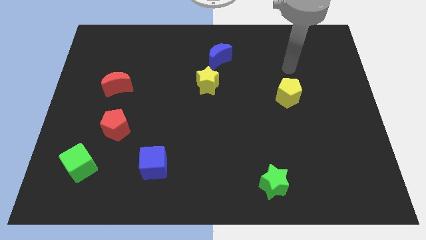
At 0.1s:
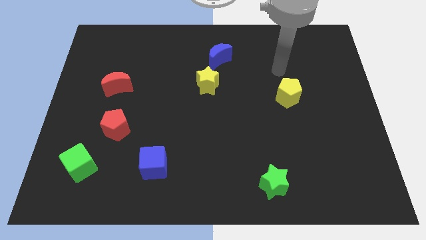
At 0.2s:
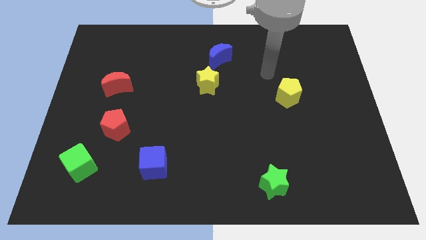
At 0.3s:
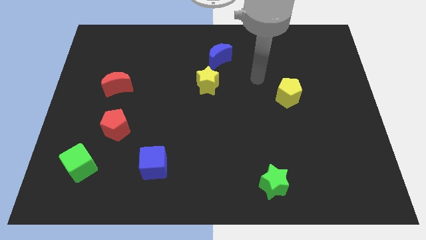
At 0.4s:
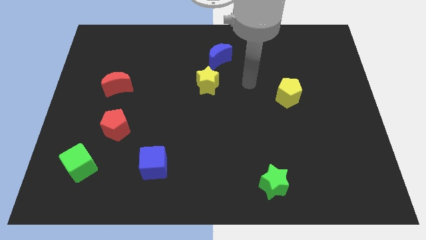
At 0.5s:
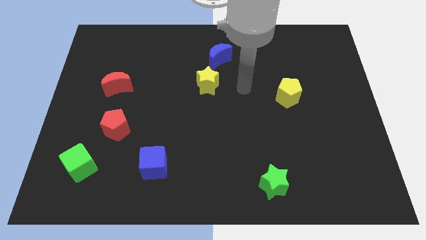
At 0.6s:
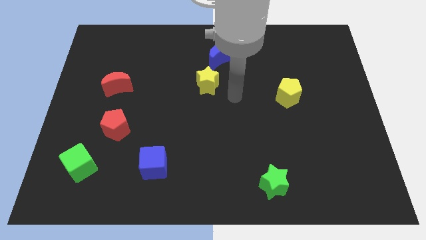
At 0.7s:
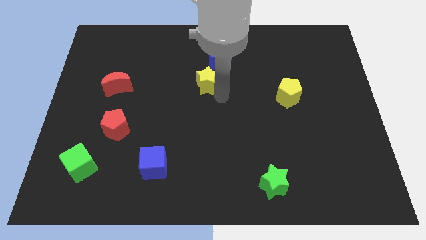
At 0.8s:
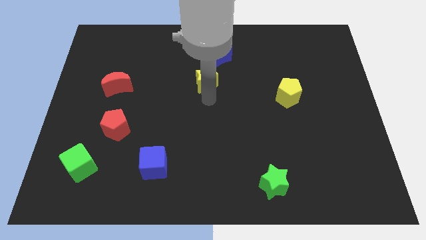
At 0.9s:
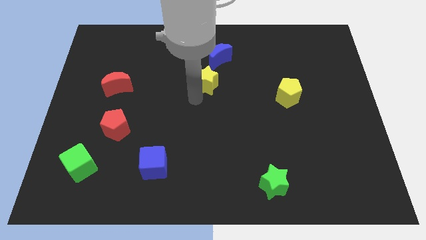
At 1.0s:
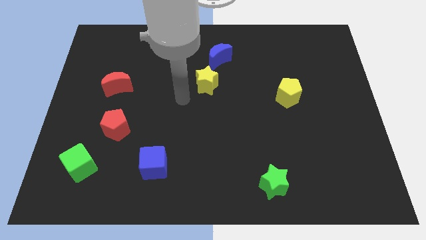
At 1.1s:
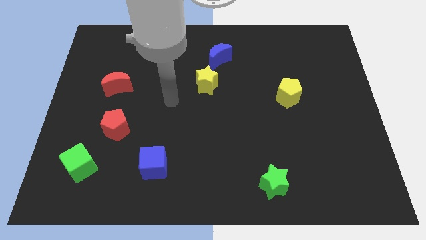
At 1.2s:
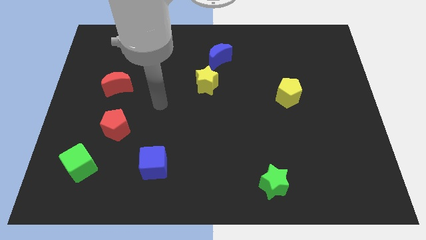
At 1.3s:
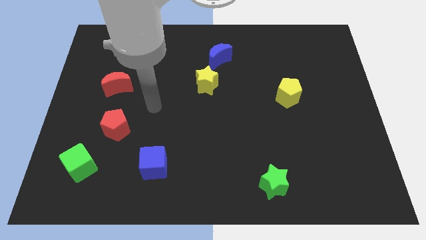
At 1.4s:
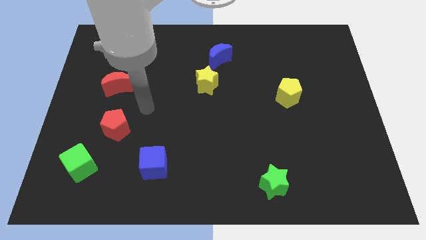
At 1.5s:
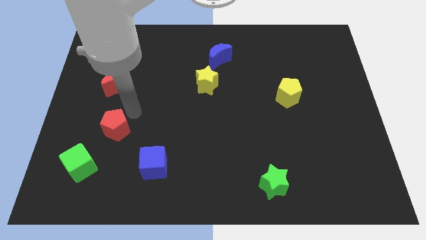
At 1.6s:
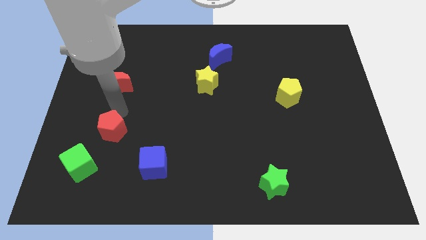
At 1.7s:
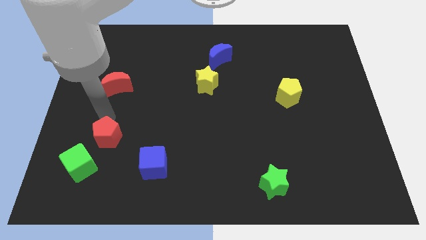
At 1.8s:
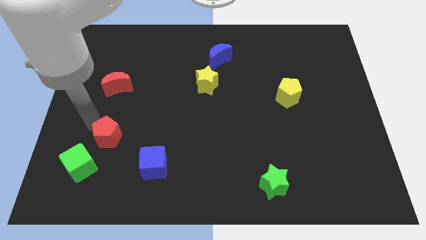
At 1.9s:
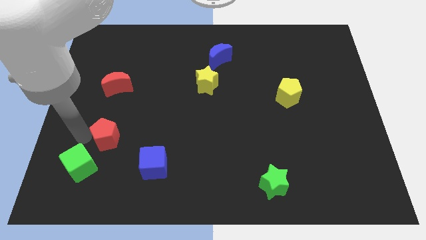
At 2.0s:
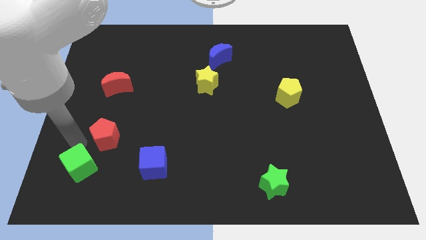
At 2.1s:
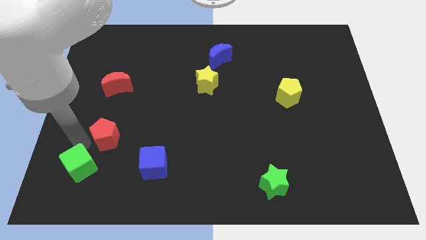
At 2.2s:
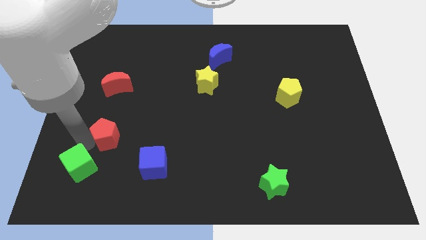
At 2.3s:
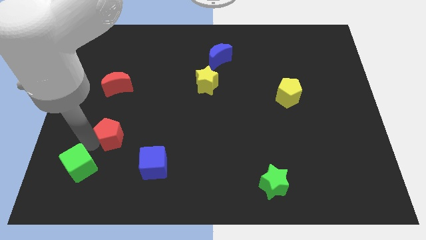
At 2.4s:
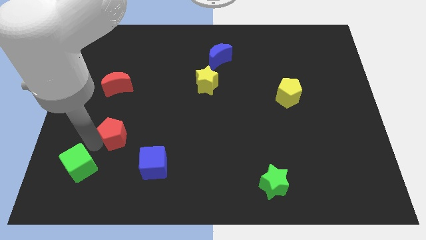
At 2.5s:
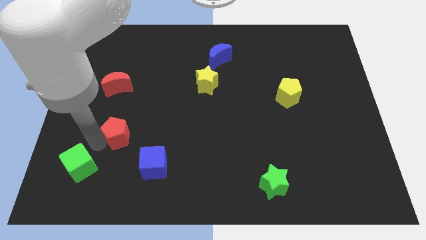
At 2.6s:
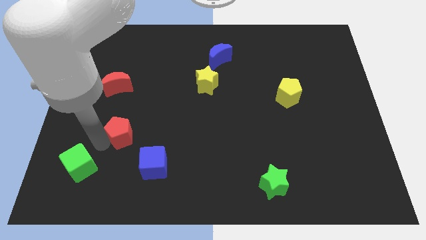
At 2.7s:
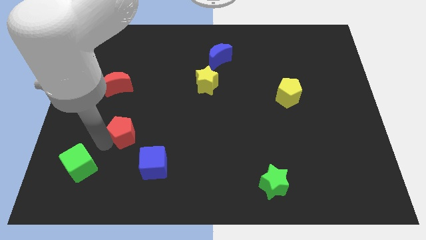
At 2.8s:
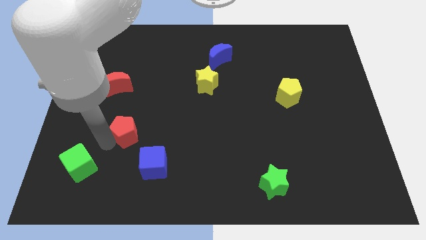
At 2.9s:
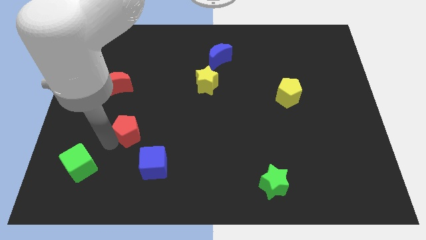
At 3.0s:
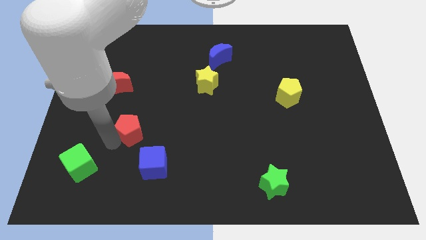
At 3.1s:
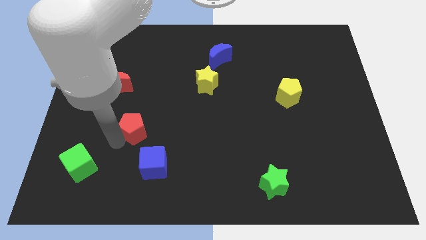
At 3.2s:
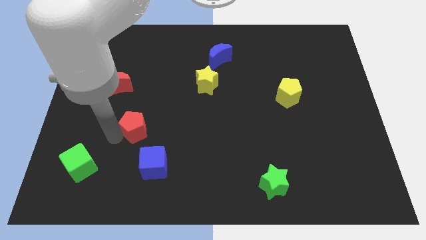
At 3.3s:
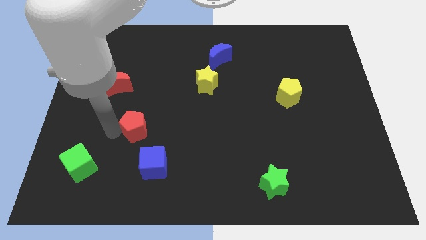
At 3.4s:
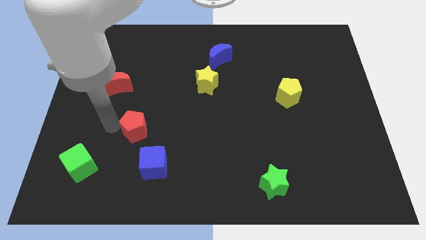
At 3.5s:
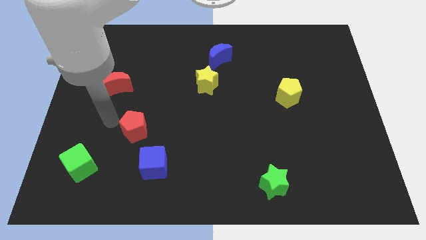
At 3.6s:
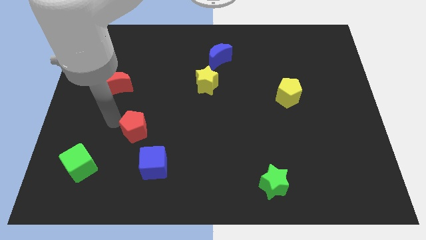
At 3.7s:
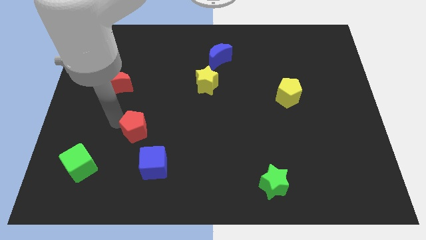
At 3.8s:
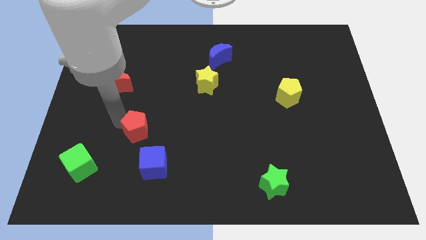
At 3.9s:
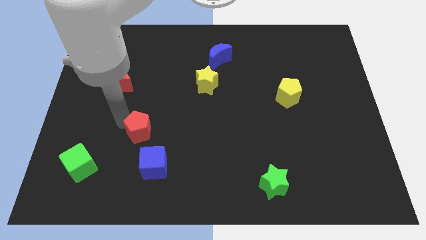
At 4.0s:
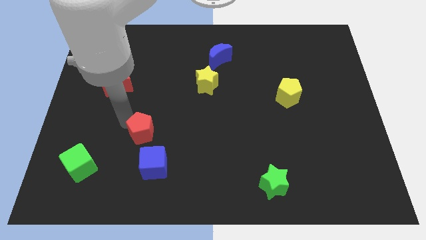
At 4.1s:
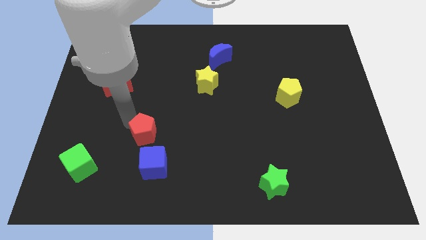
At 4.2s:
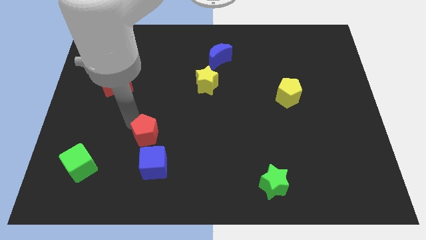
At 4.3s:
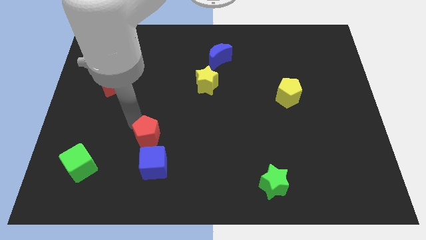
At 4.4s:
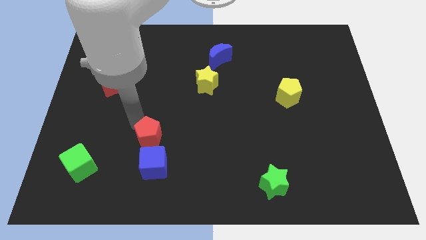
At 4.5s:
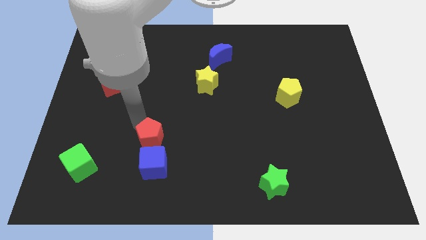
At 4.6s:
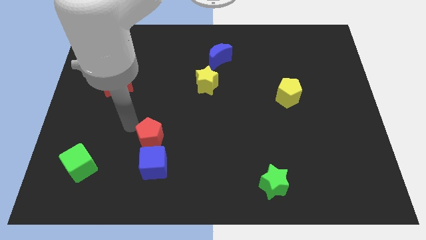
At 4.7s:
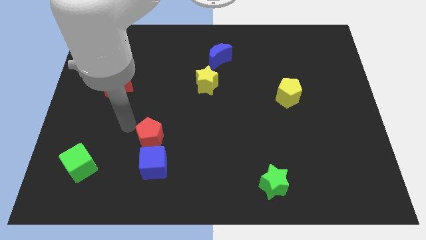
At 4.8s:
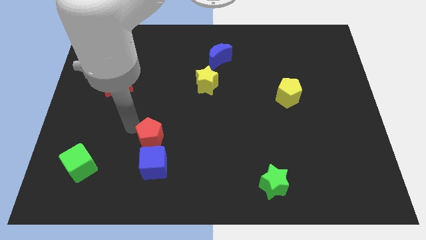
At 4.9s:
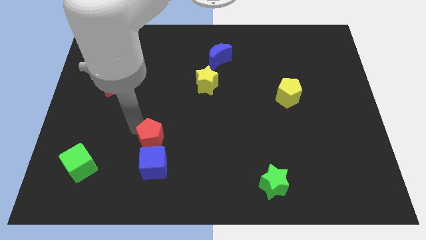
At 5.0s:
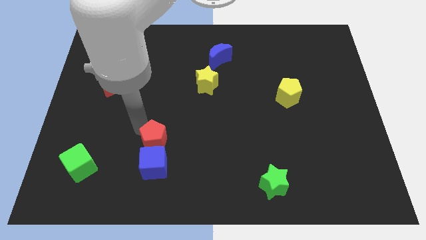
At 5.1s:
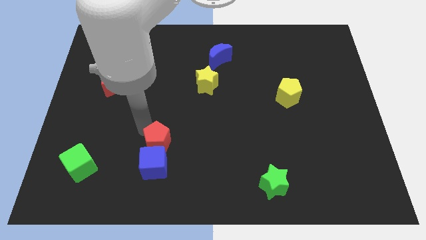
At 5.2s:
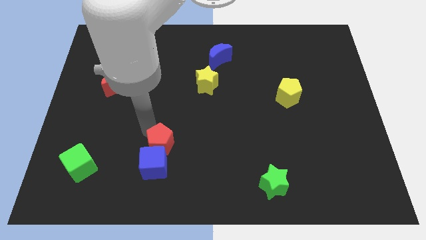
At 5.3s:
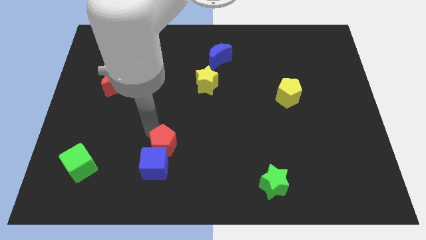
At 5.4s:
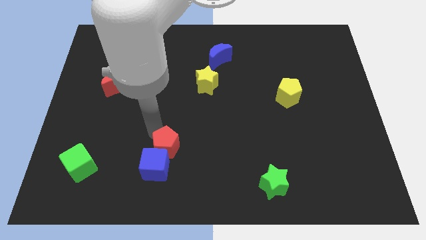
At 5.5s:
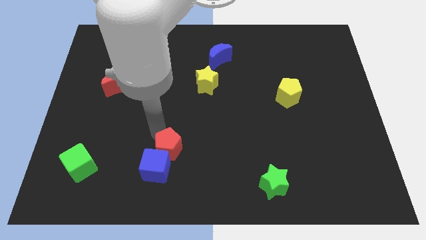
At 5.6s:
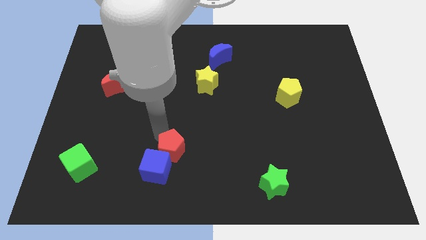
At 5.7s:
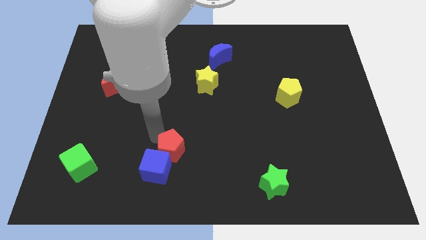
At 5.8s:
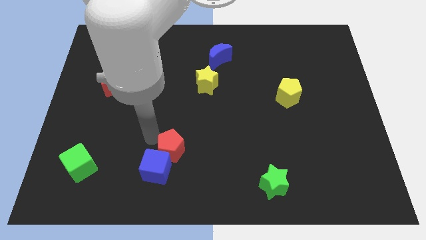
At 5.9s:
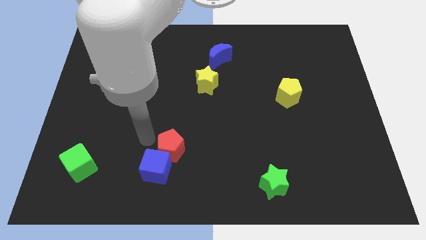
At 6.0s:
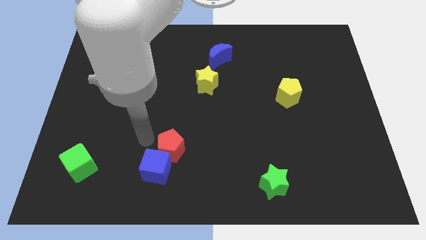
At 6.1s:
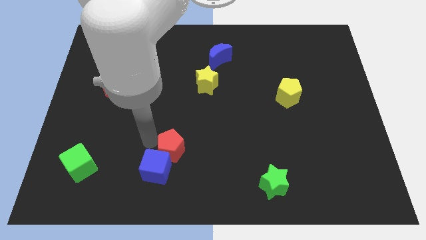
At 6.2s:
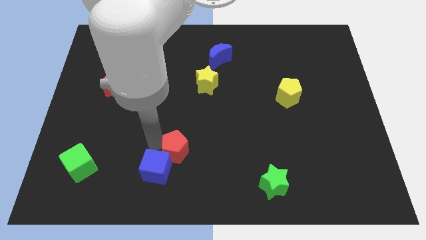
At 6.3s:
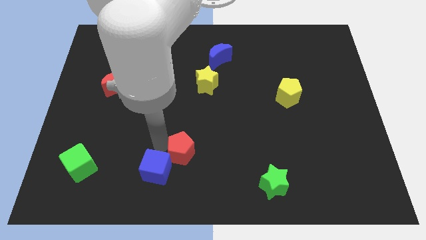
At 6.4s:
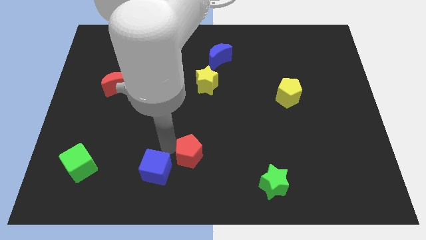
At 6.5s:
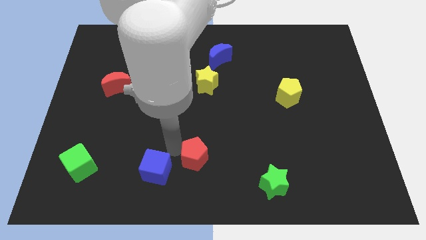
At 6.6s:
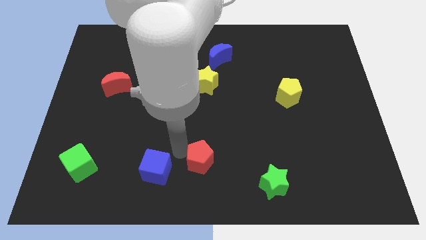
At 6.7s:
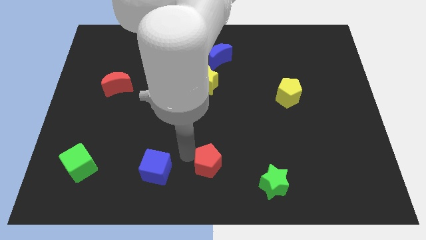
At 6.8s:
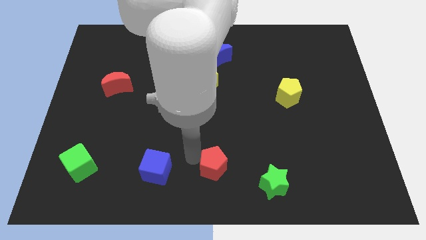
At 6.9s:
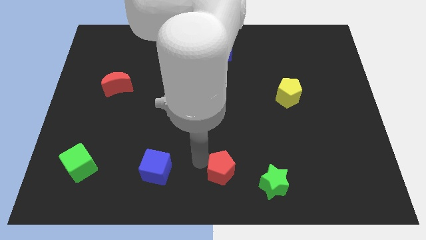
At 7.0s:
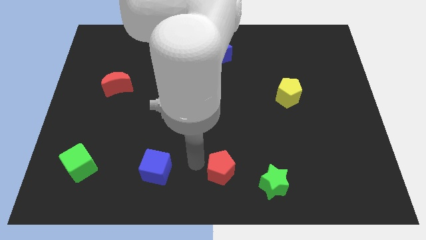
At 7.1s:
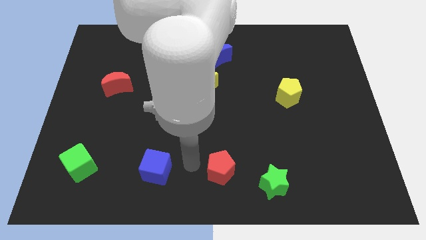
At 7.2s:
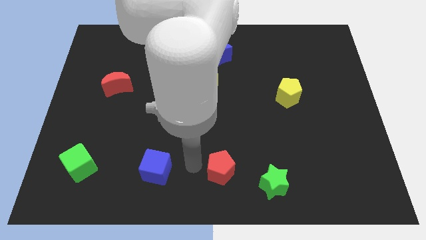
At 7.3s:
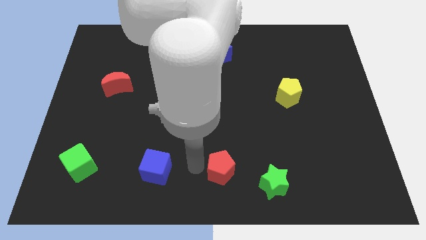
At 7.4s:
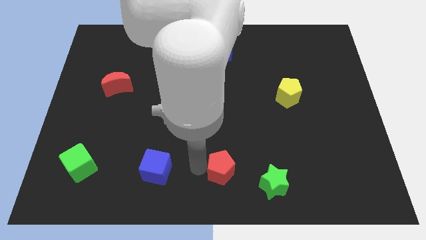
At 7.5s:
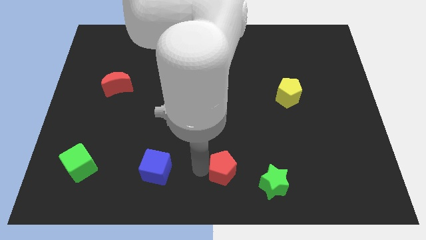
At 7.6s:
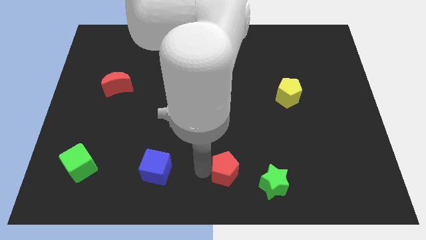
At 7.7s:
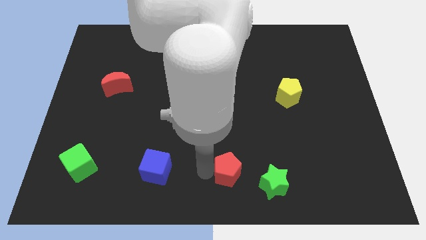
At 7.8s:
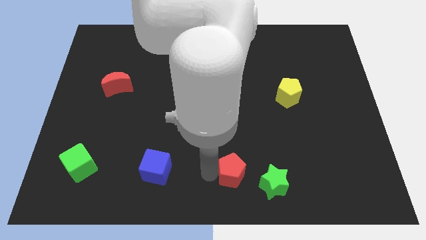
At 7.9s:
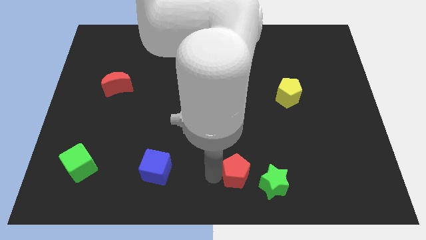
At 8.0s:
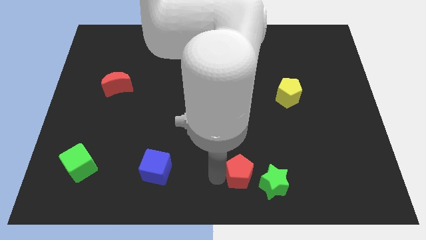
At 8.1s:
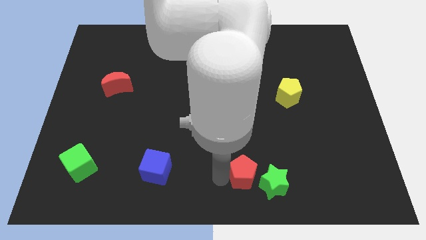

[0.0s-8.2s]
slide the red pentagon next to the green star

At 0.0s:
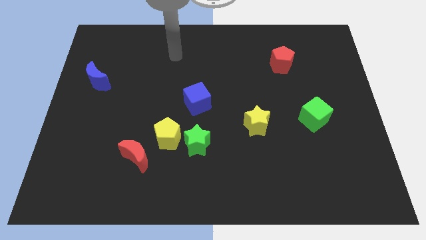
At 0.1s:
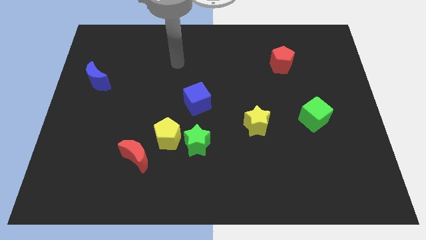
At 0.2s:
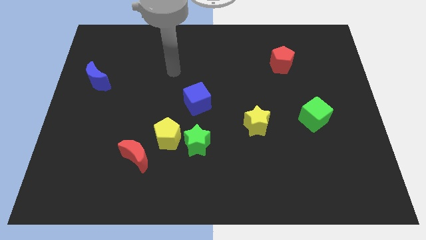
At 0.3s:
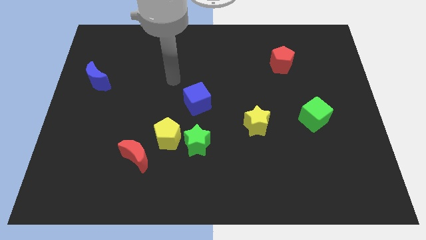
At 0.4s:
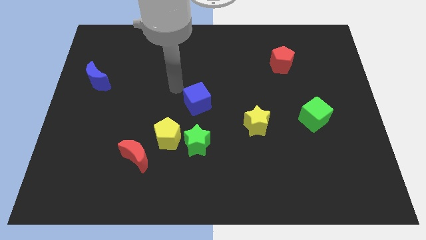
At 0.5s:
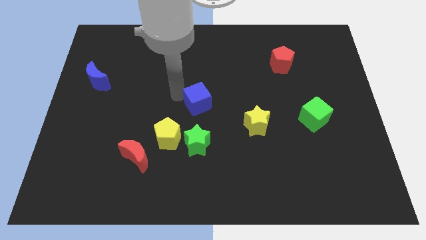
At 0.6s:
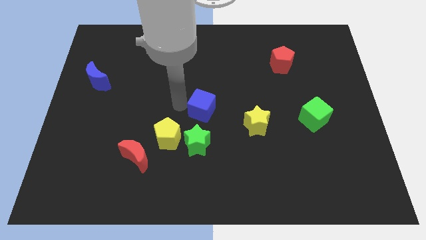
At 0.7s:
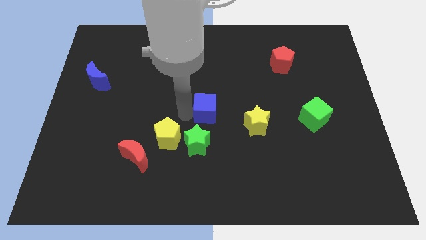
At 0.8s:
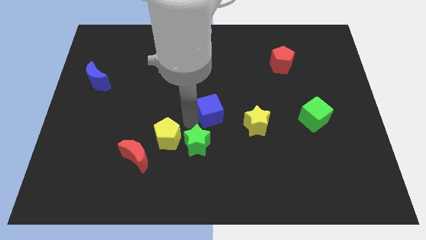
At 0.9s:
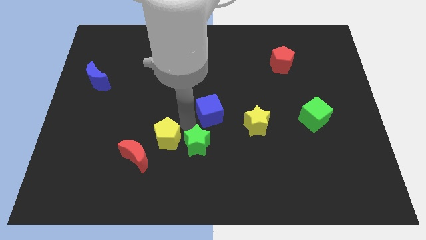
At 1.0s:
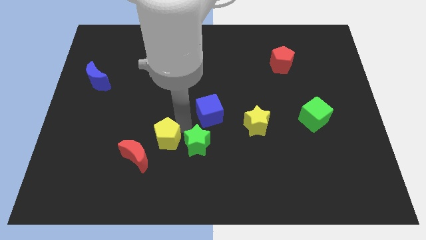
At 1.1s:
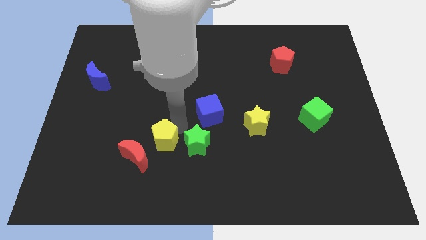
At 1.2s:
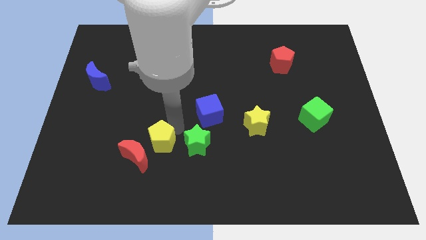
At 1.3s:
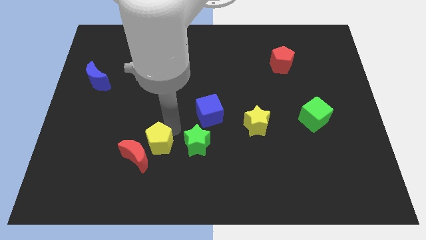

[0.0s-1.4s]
slide the yellow pentagon next to the red moon
